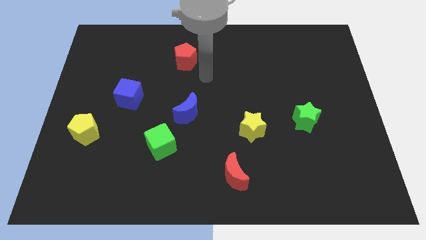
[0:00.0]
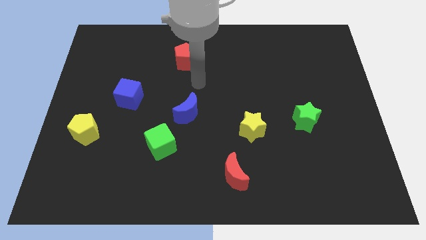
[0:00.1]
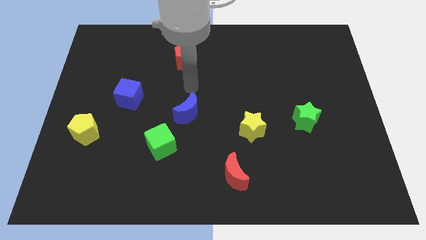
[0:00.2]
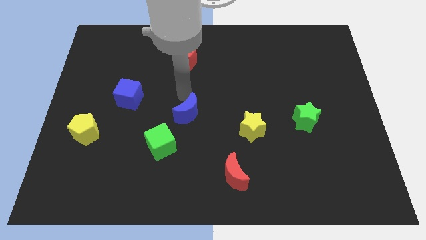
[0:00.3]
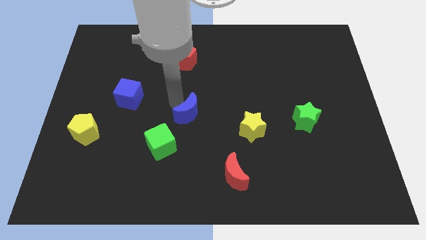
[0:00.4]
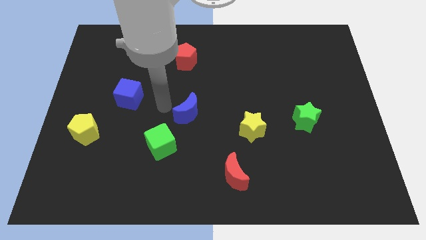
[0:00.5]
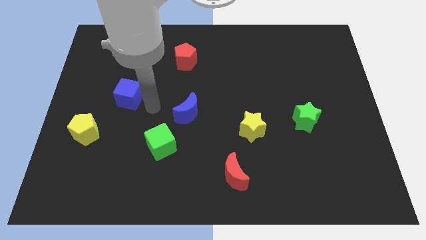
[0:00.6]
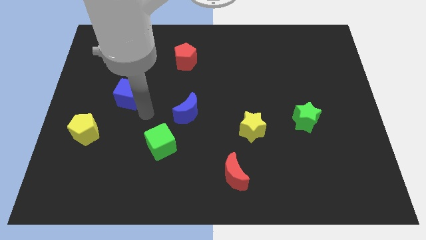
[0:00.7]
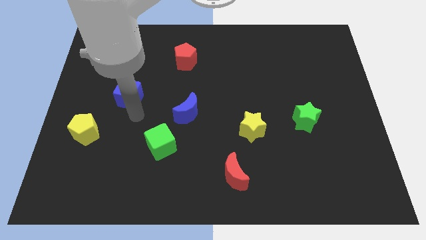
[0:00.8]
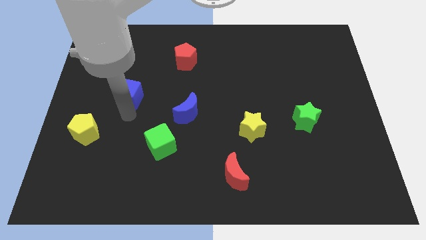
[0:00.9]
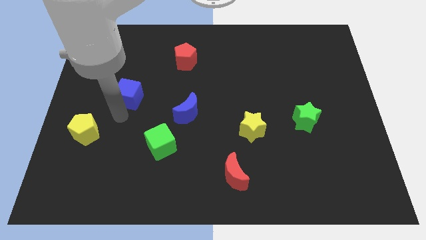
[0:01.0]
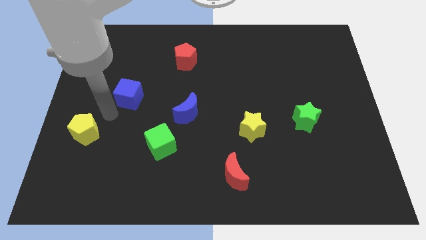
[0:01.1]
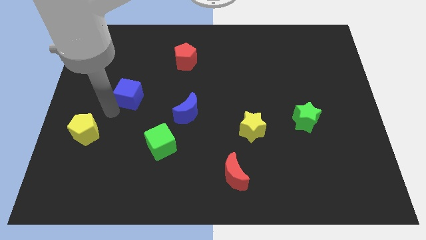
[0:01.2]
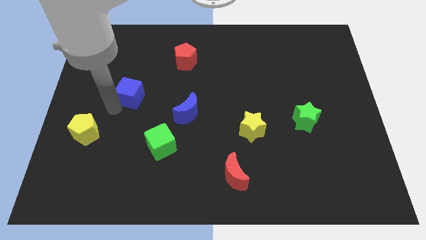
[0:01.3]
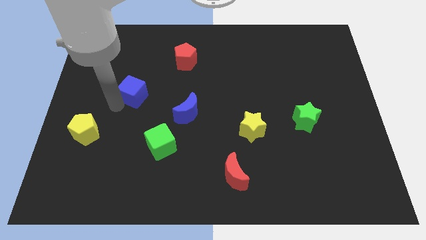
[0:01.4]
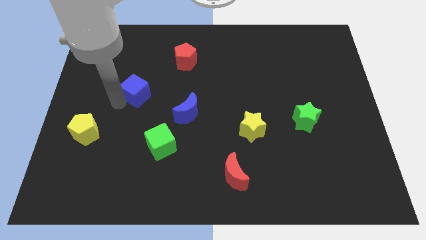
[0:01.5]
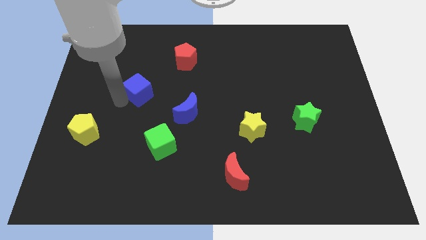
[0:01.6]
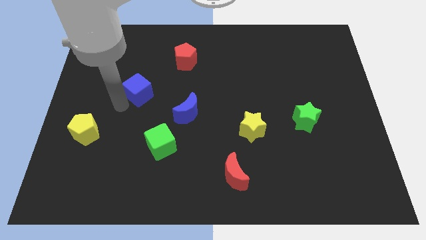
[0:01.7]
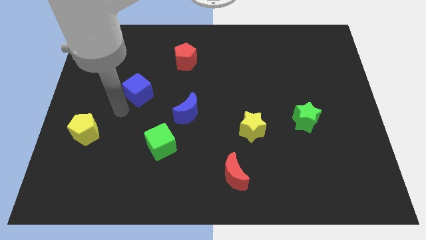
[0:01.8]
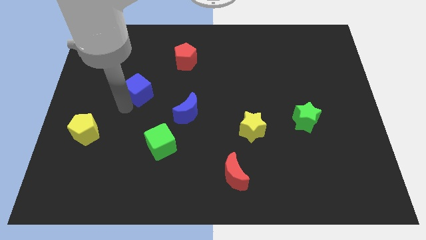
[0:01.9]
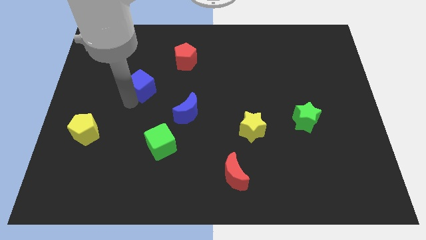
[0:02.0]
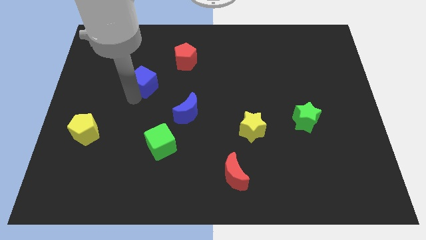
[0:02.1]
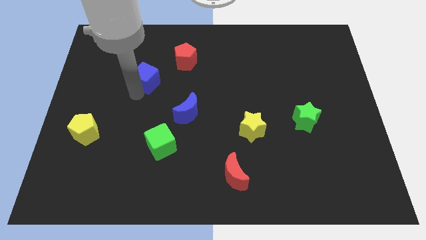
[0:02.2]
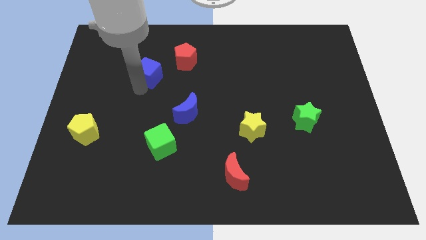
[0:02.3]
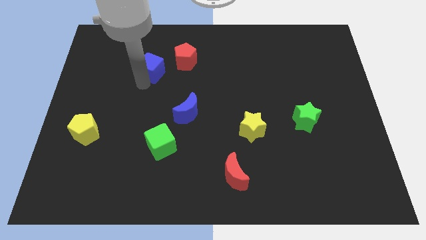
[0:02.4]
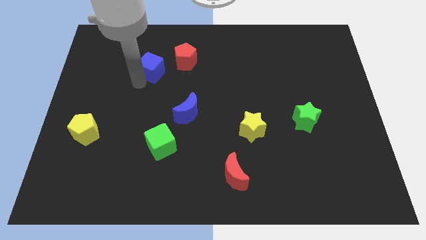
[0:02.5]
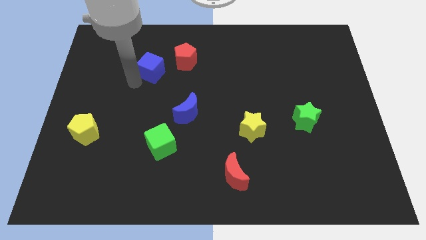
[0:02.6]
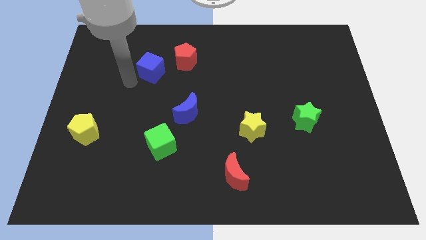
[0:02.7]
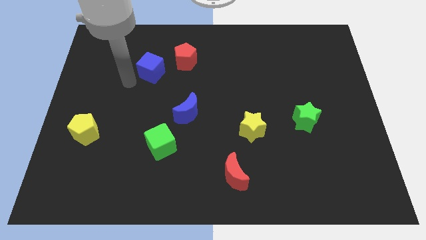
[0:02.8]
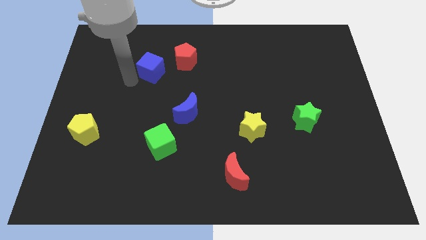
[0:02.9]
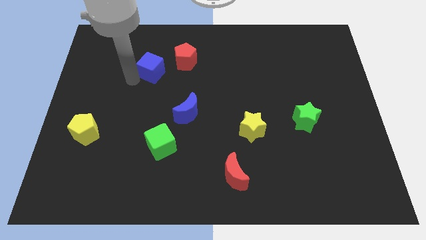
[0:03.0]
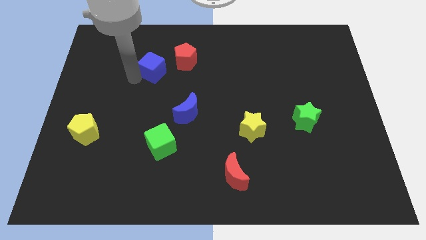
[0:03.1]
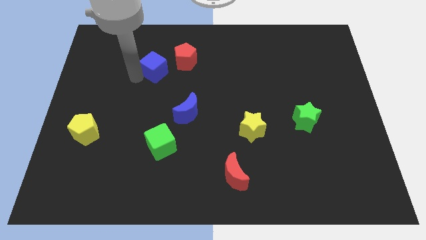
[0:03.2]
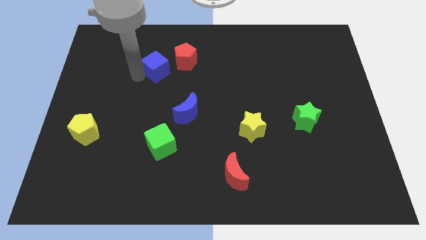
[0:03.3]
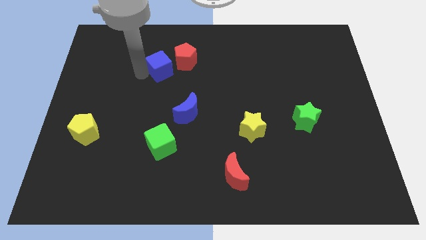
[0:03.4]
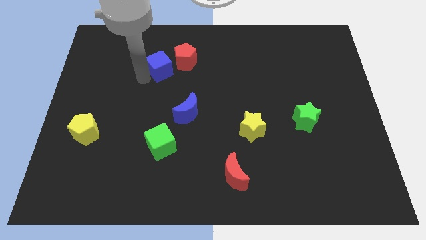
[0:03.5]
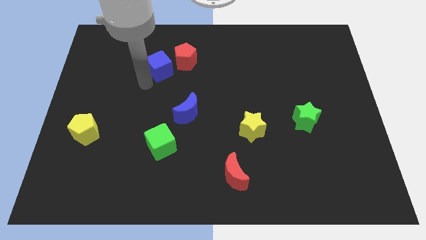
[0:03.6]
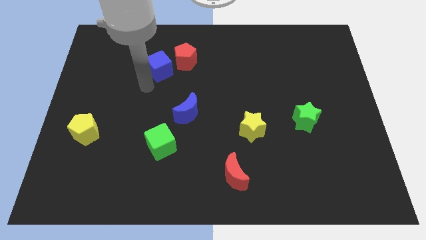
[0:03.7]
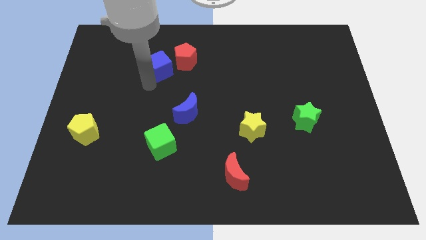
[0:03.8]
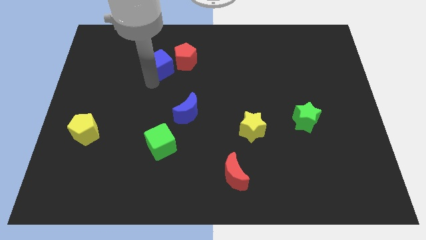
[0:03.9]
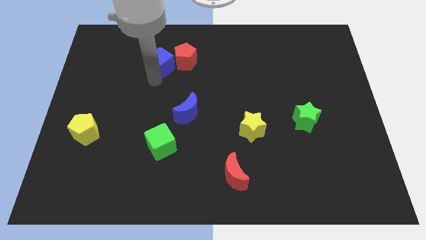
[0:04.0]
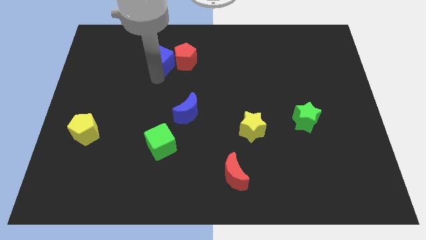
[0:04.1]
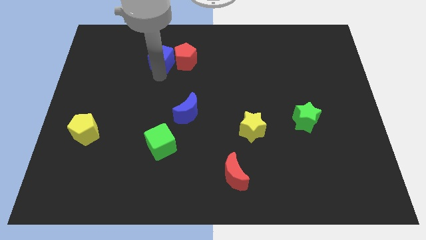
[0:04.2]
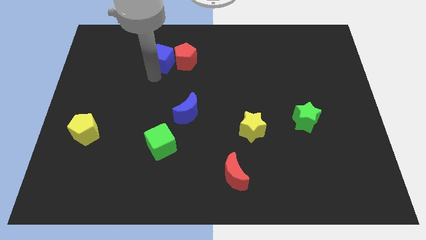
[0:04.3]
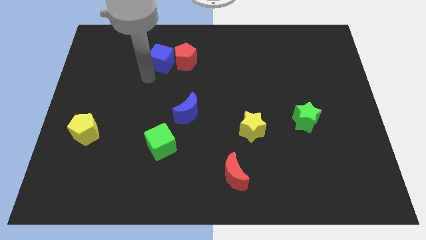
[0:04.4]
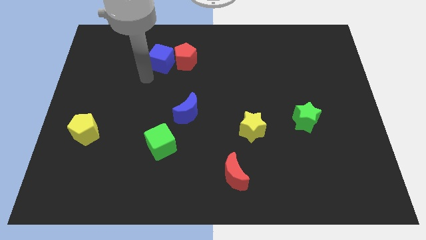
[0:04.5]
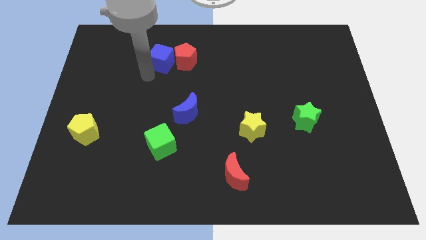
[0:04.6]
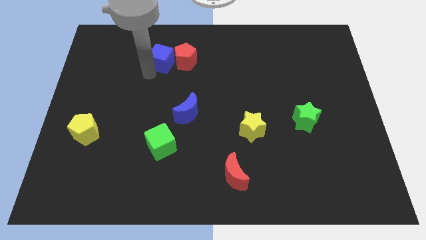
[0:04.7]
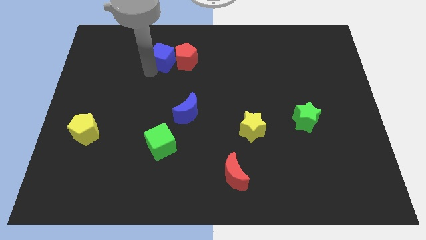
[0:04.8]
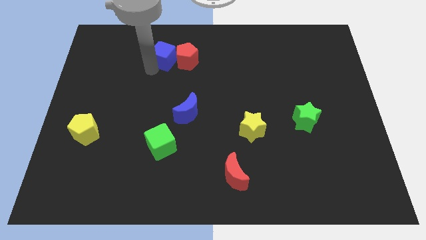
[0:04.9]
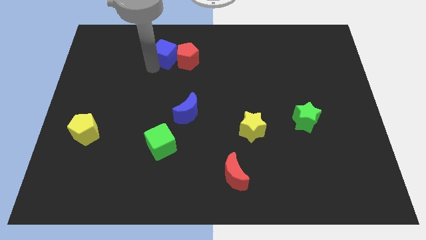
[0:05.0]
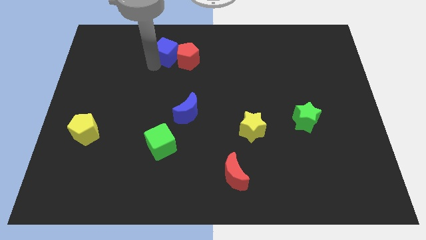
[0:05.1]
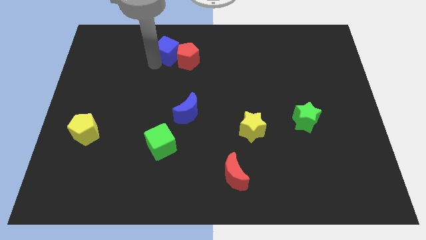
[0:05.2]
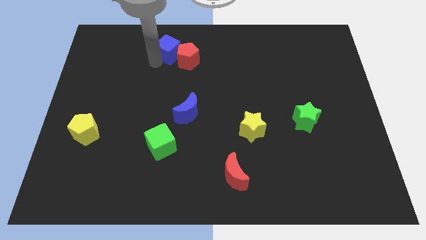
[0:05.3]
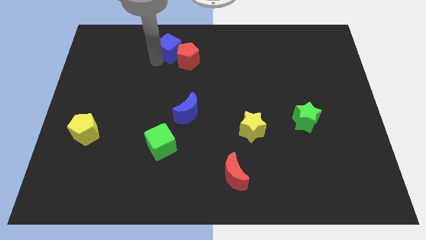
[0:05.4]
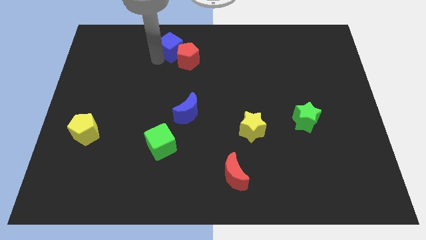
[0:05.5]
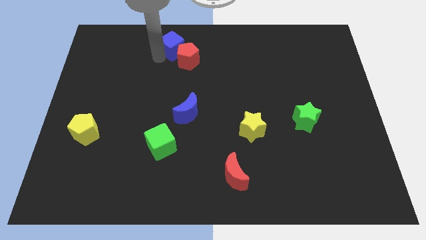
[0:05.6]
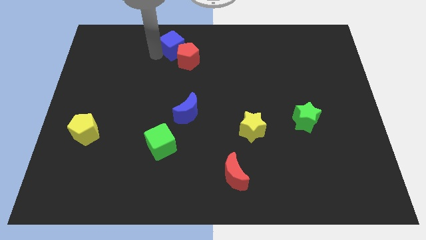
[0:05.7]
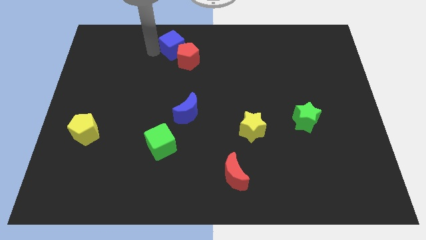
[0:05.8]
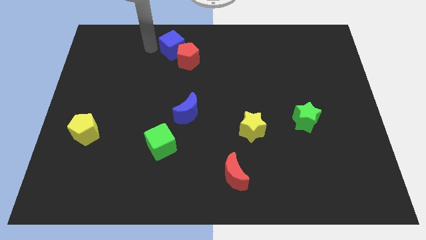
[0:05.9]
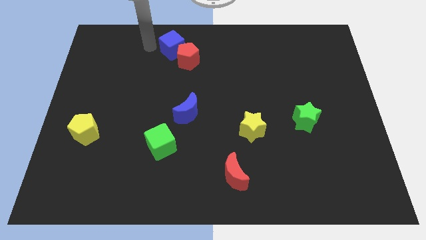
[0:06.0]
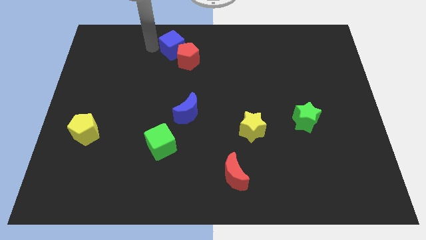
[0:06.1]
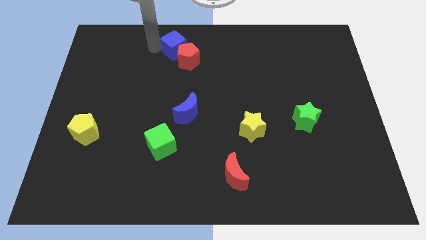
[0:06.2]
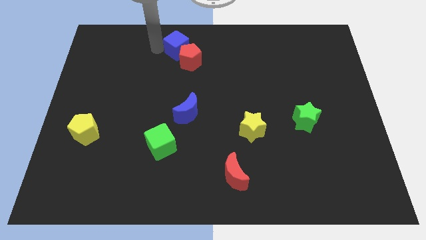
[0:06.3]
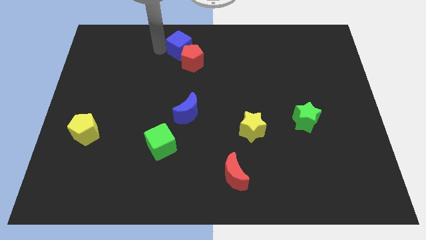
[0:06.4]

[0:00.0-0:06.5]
put the blue cube to the towards your base
